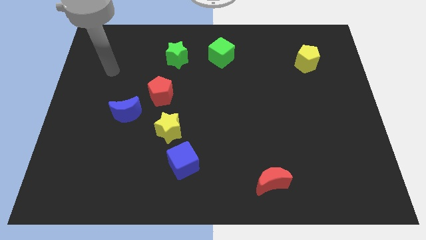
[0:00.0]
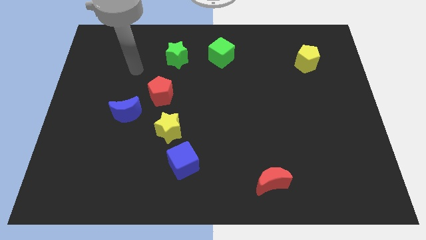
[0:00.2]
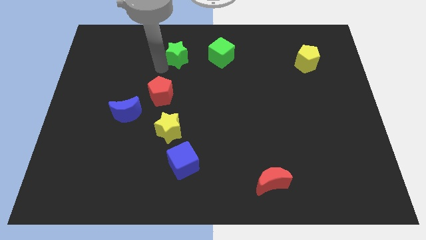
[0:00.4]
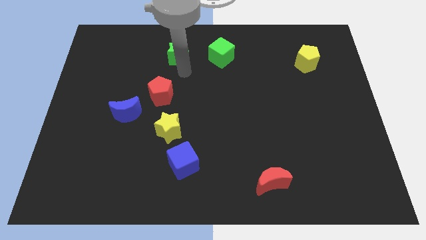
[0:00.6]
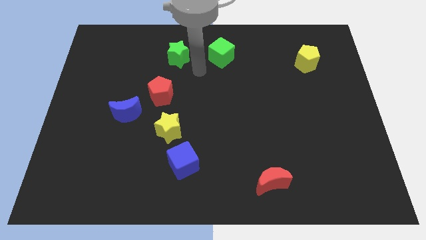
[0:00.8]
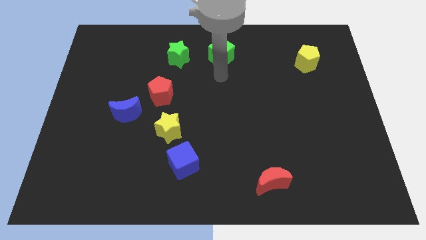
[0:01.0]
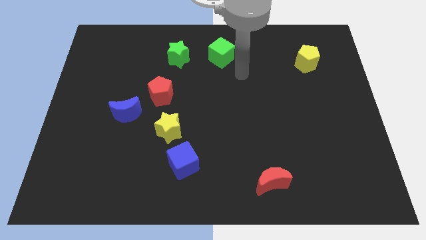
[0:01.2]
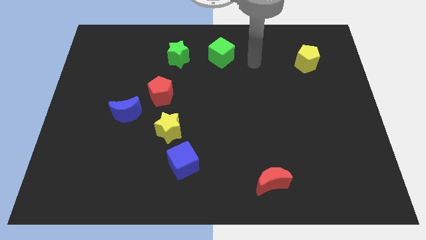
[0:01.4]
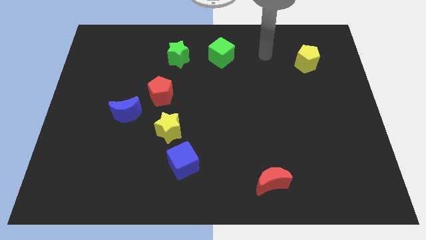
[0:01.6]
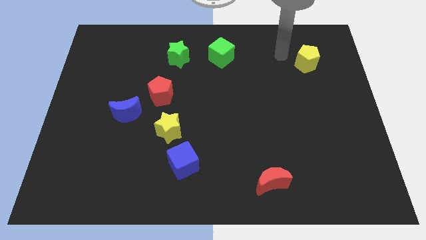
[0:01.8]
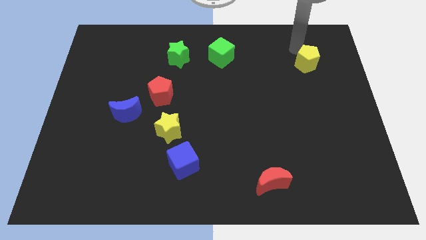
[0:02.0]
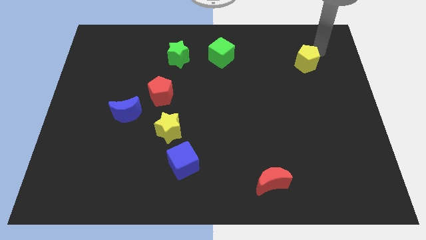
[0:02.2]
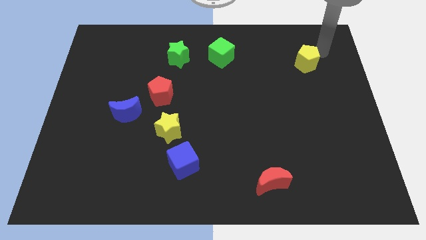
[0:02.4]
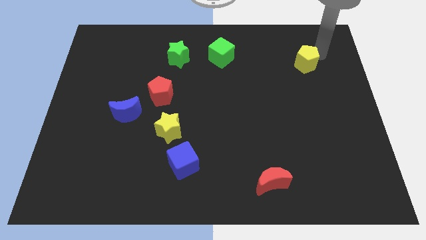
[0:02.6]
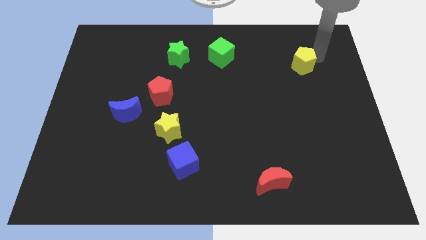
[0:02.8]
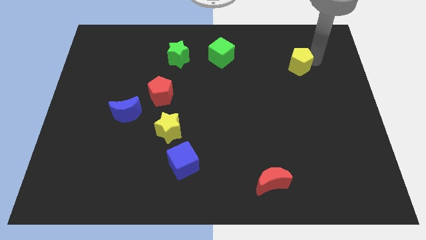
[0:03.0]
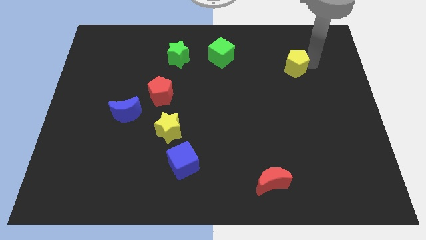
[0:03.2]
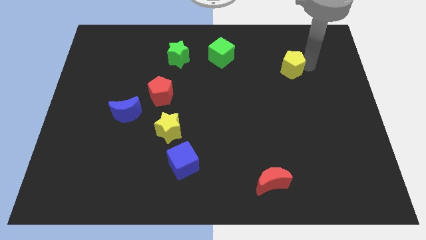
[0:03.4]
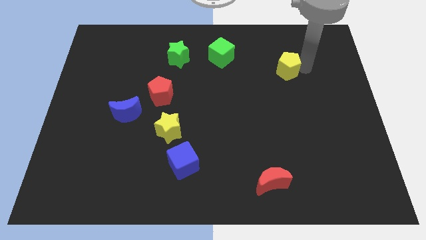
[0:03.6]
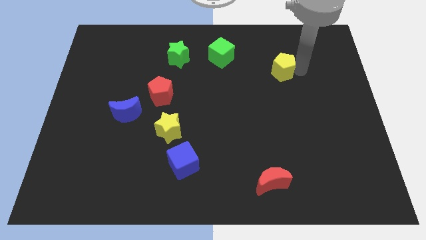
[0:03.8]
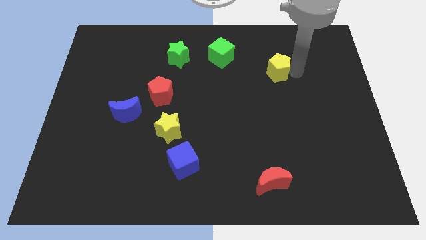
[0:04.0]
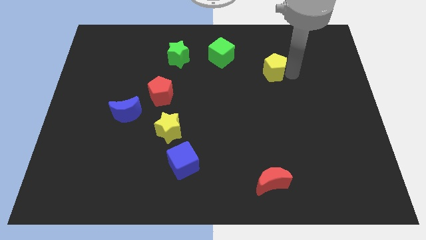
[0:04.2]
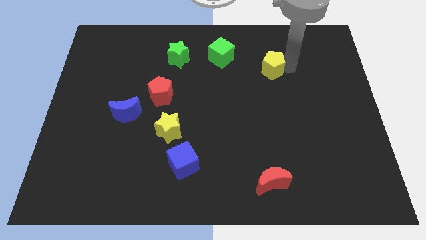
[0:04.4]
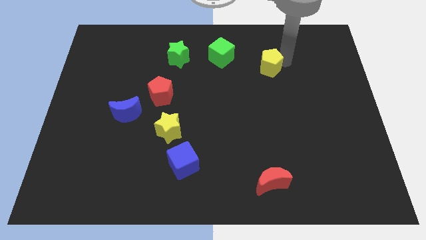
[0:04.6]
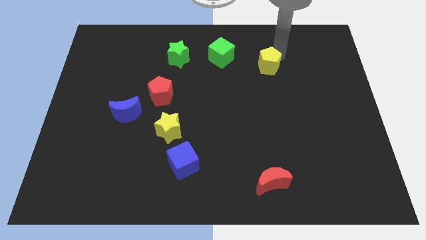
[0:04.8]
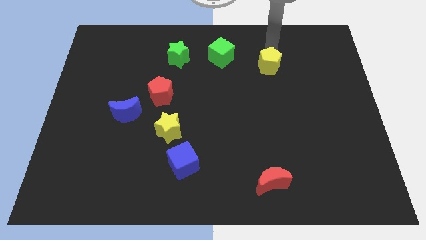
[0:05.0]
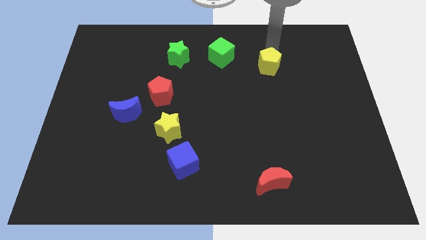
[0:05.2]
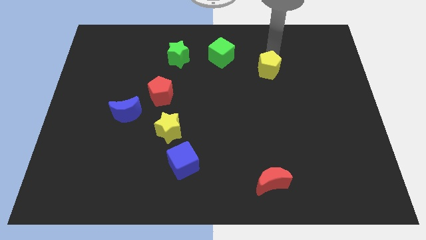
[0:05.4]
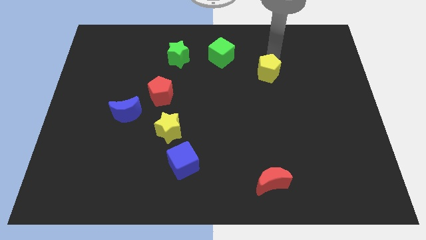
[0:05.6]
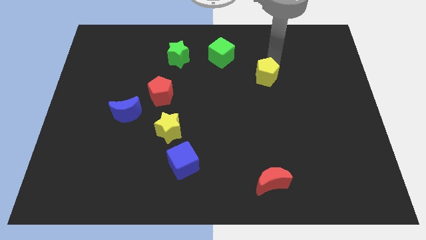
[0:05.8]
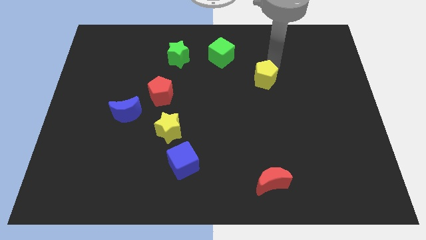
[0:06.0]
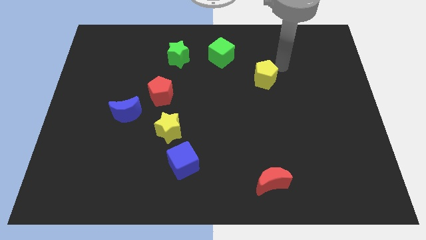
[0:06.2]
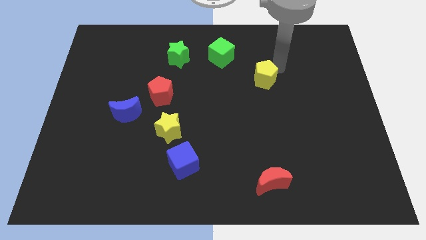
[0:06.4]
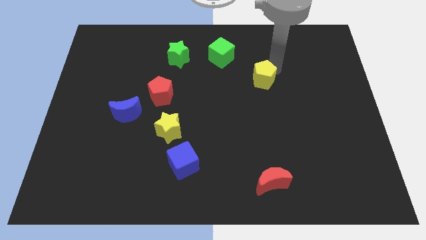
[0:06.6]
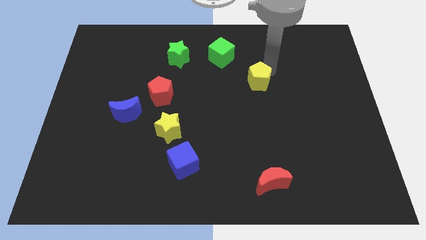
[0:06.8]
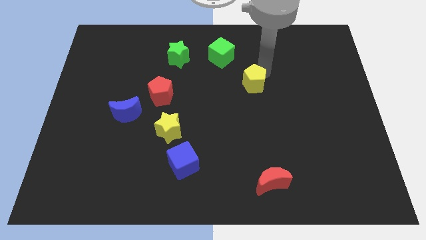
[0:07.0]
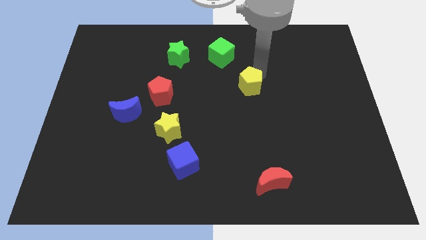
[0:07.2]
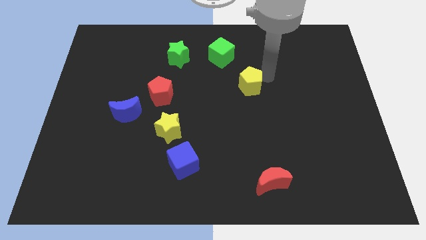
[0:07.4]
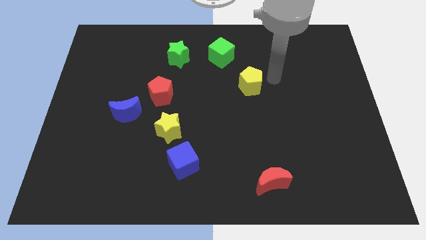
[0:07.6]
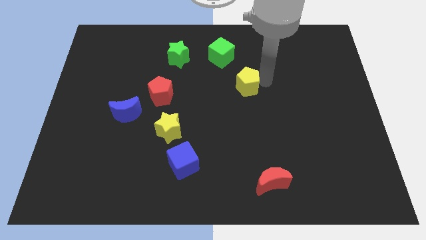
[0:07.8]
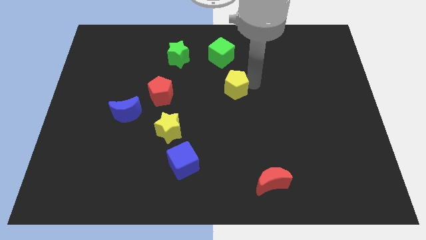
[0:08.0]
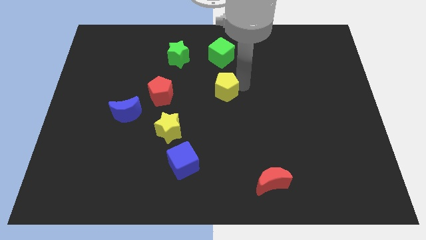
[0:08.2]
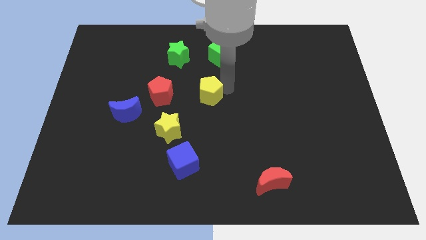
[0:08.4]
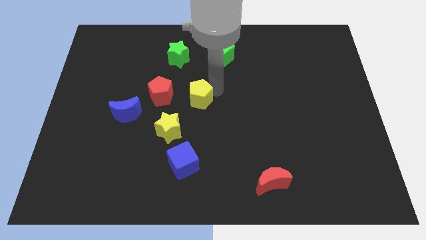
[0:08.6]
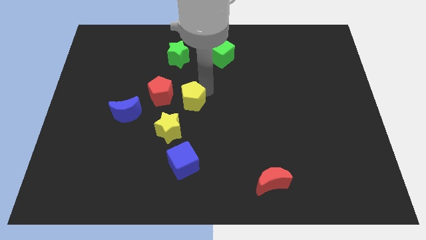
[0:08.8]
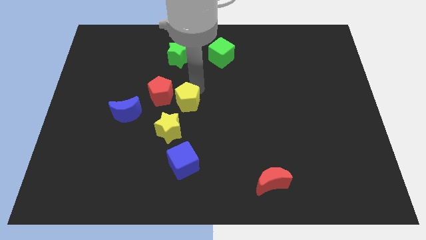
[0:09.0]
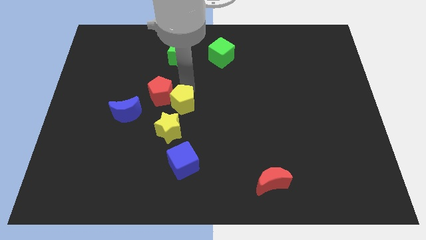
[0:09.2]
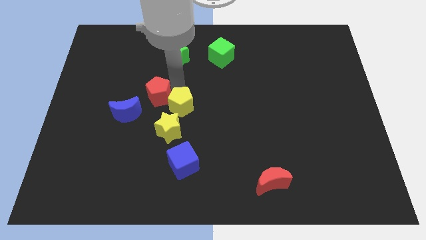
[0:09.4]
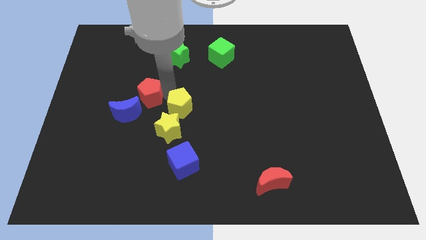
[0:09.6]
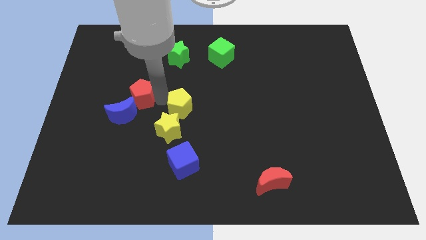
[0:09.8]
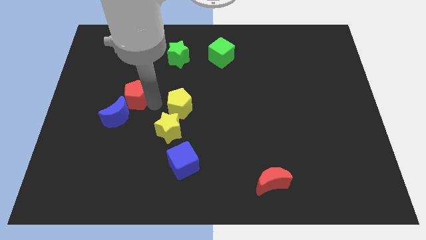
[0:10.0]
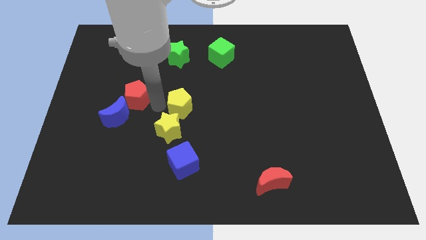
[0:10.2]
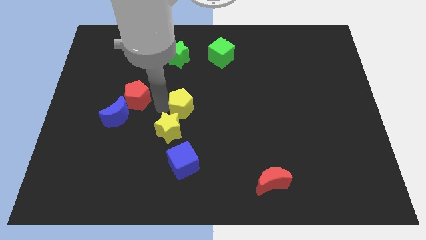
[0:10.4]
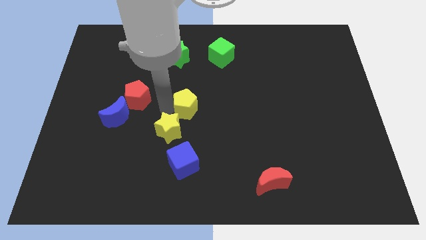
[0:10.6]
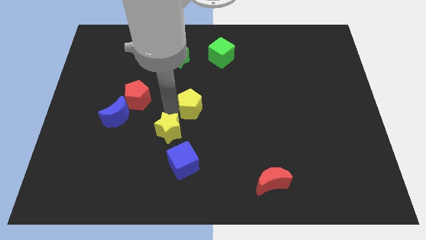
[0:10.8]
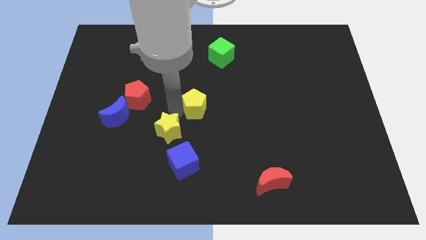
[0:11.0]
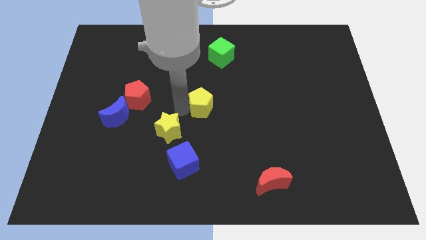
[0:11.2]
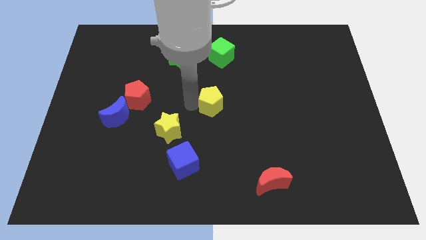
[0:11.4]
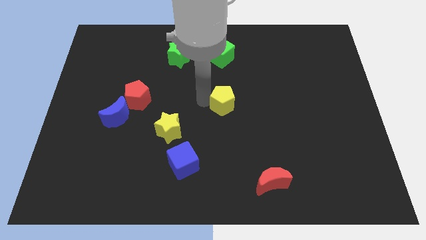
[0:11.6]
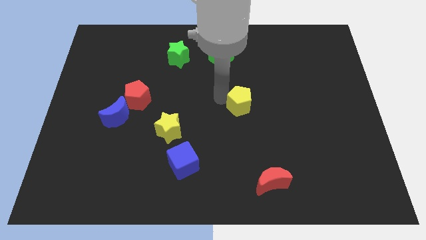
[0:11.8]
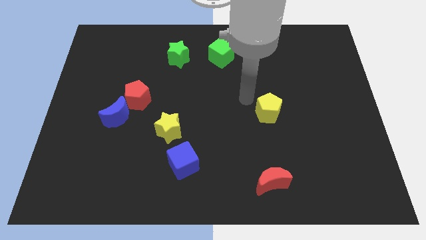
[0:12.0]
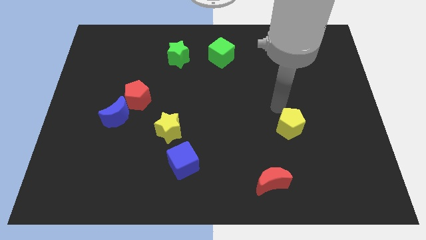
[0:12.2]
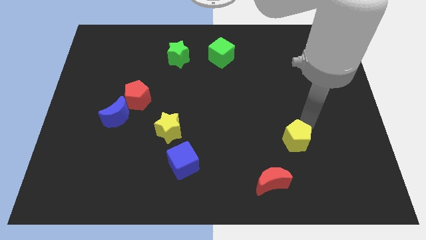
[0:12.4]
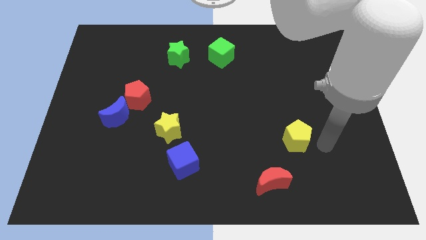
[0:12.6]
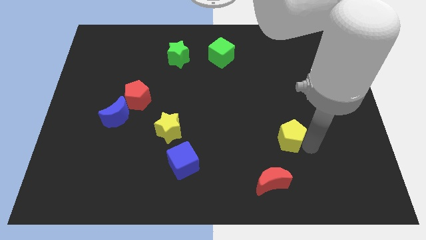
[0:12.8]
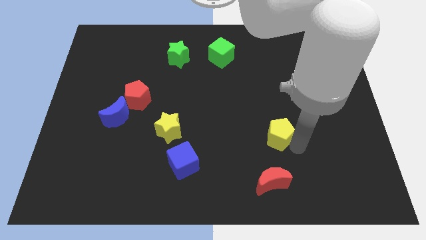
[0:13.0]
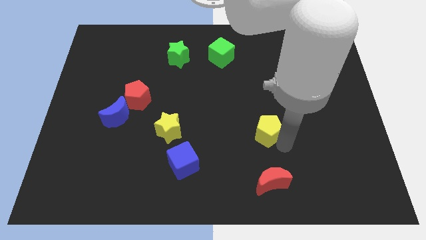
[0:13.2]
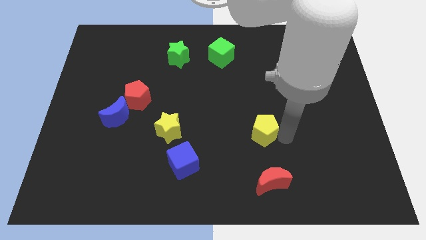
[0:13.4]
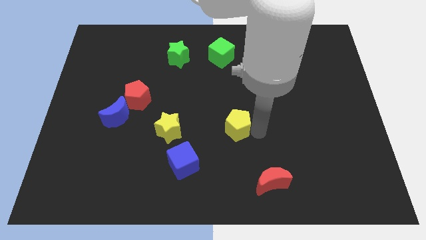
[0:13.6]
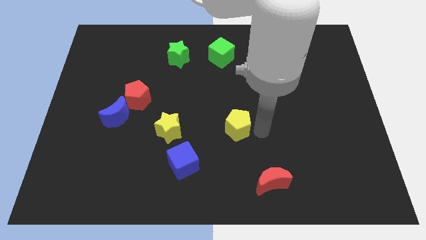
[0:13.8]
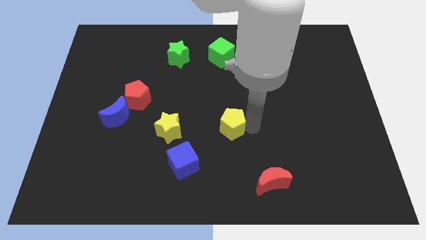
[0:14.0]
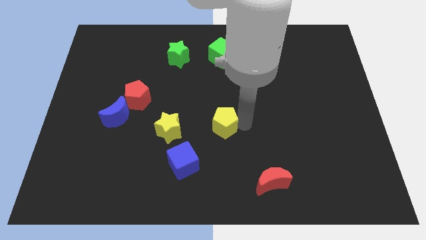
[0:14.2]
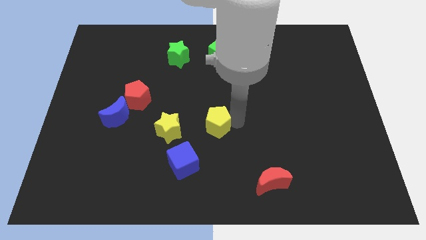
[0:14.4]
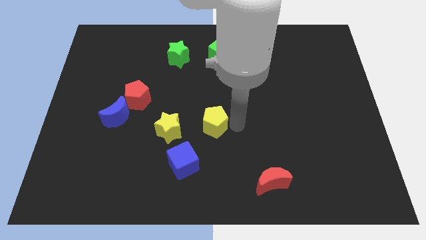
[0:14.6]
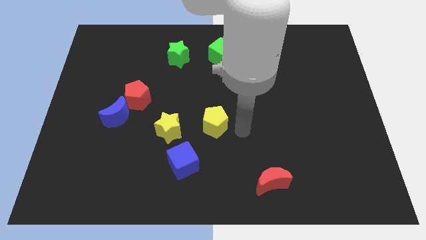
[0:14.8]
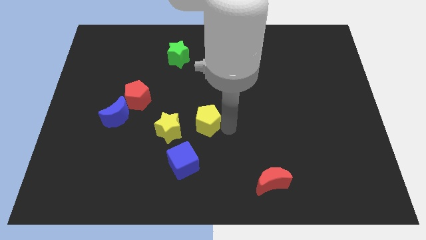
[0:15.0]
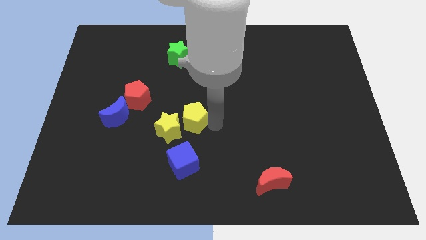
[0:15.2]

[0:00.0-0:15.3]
put the yellow pentagon towards the yellow star
